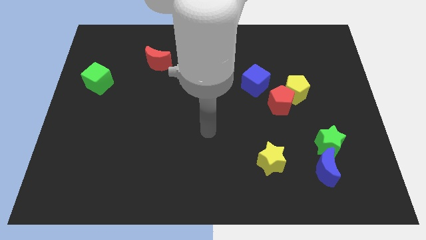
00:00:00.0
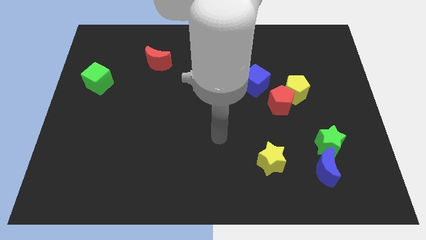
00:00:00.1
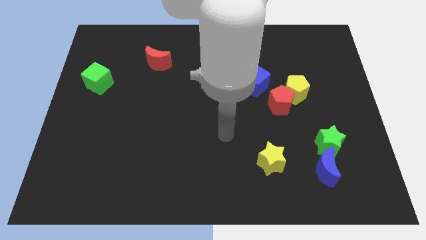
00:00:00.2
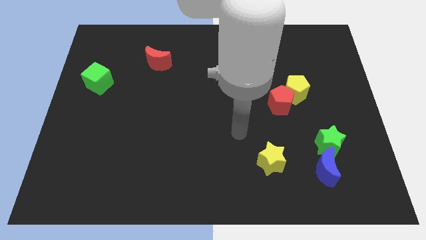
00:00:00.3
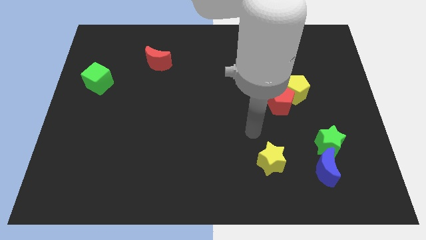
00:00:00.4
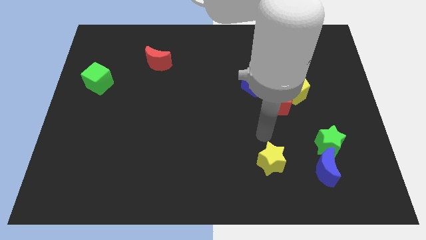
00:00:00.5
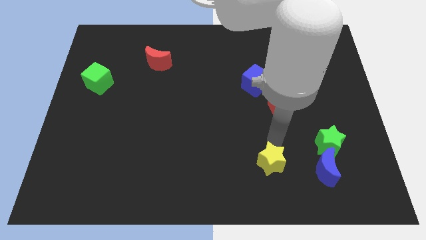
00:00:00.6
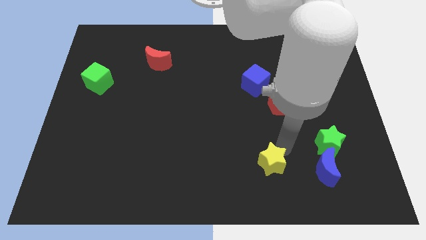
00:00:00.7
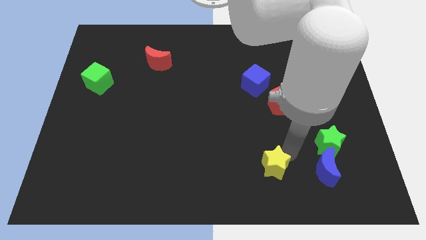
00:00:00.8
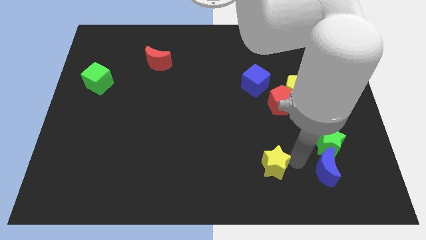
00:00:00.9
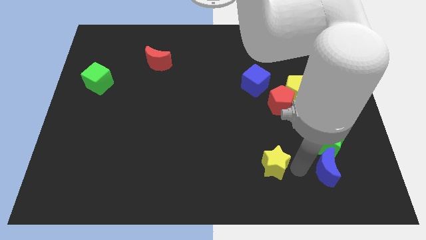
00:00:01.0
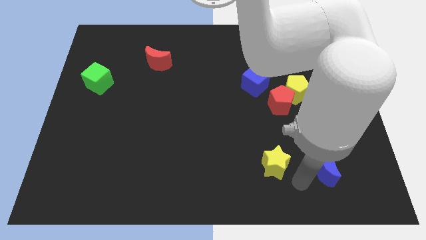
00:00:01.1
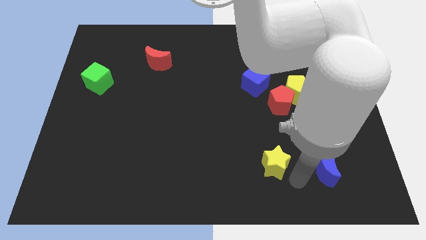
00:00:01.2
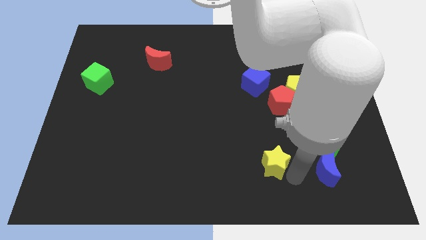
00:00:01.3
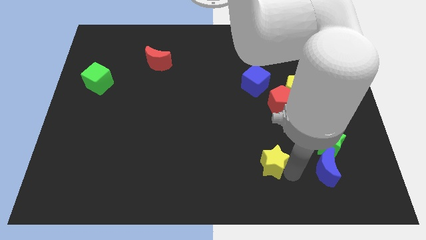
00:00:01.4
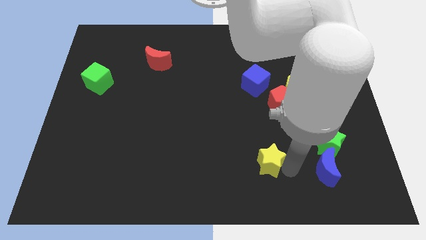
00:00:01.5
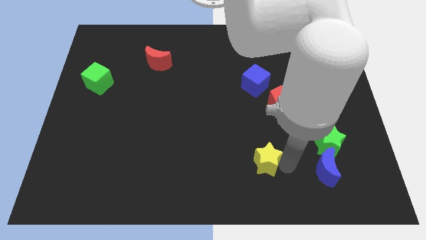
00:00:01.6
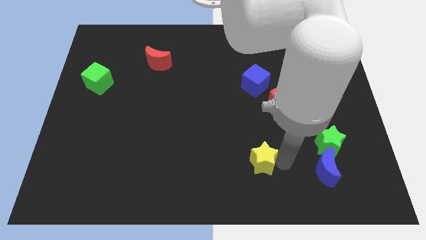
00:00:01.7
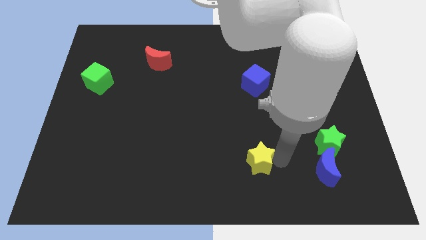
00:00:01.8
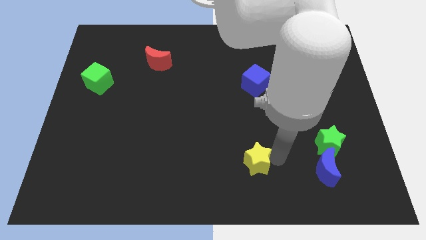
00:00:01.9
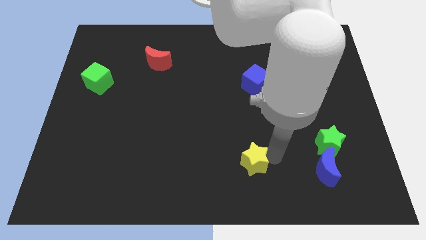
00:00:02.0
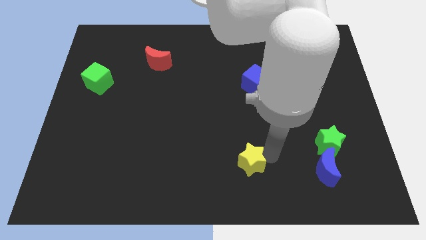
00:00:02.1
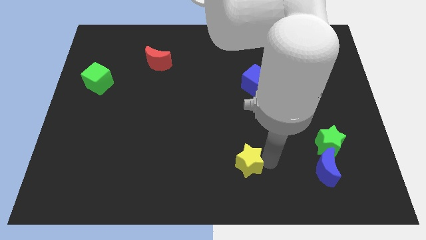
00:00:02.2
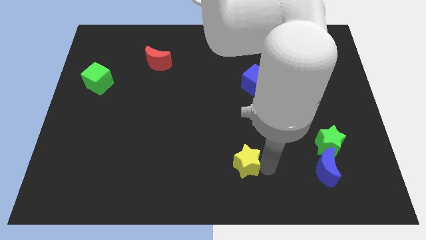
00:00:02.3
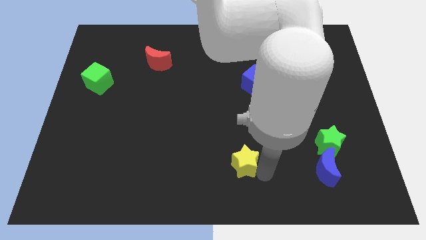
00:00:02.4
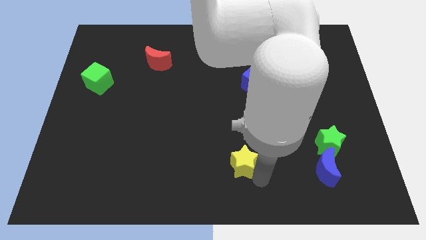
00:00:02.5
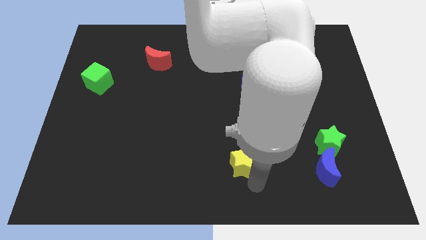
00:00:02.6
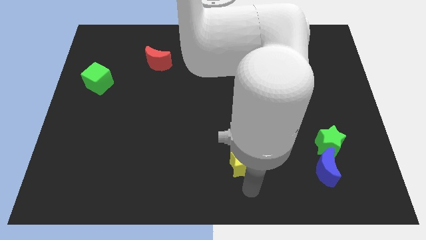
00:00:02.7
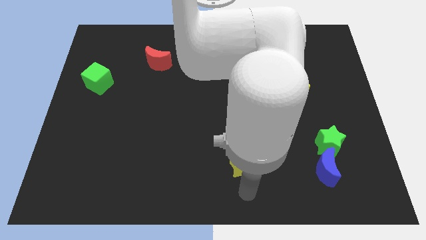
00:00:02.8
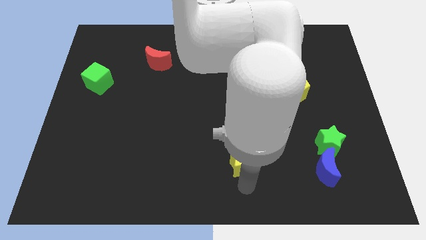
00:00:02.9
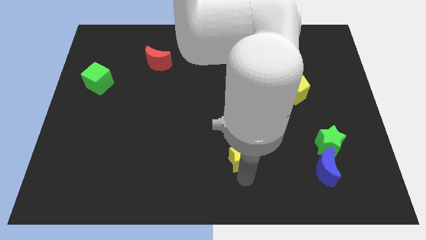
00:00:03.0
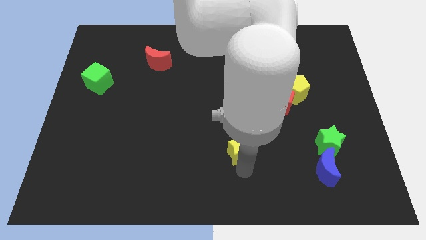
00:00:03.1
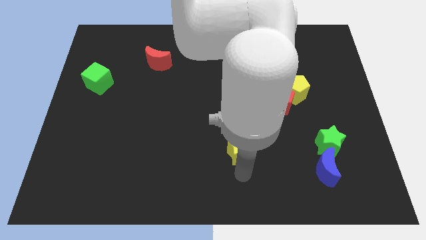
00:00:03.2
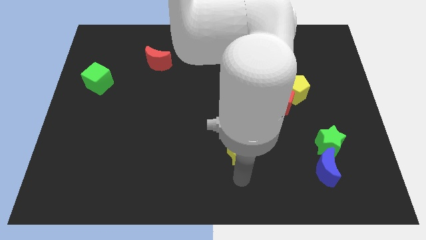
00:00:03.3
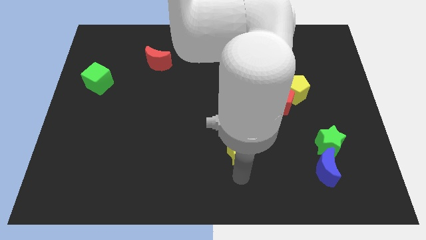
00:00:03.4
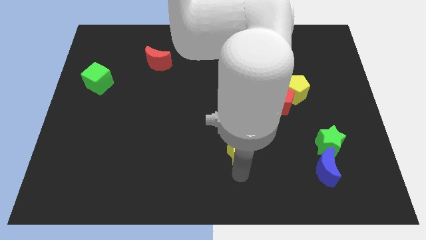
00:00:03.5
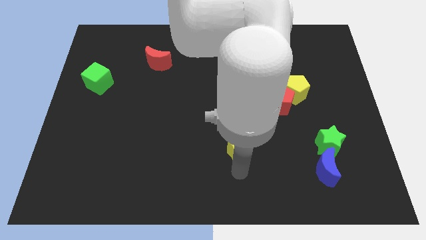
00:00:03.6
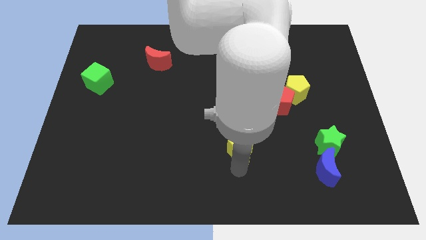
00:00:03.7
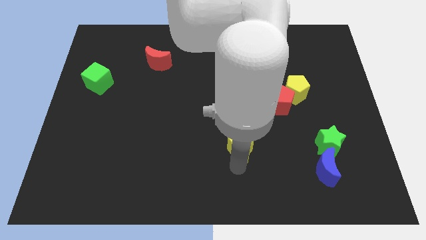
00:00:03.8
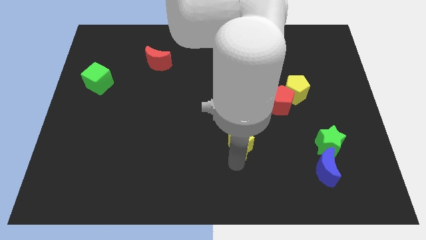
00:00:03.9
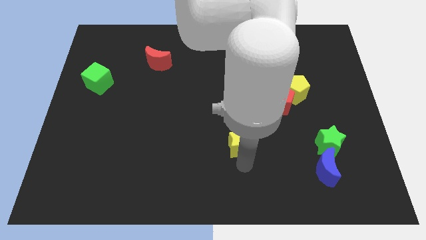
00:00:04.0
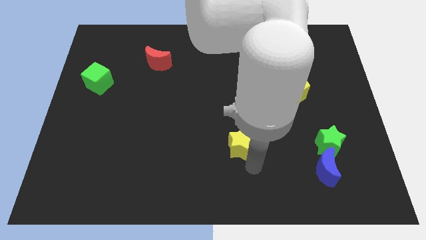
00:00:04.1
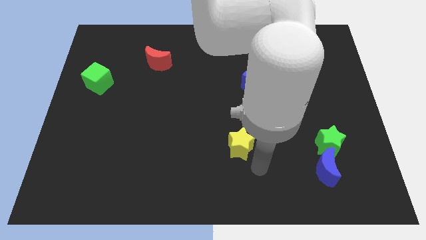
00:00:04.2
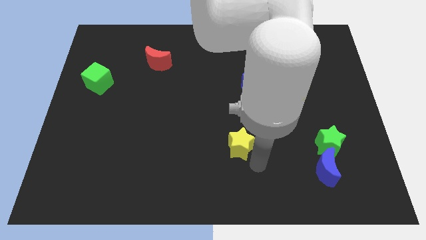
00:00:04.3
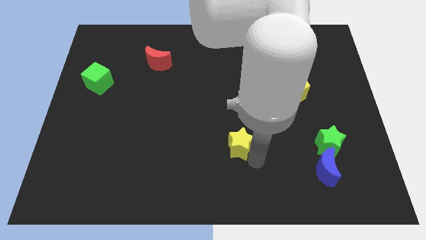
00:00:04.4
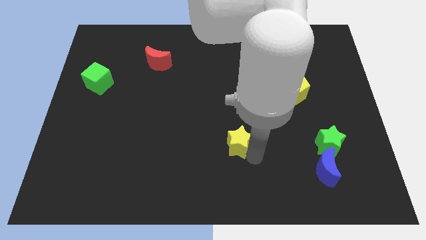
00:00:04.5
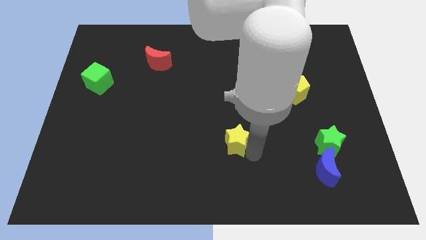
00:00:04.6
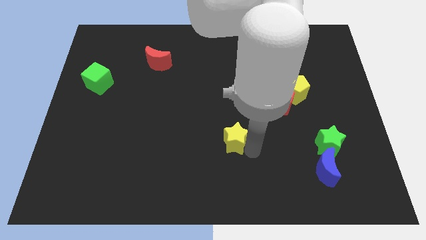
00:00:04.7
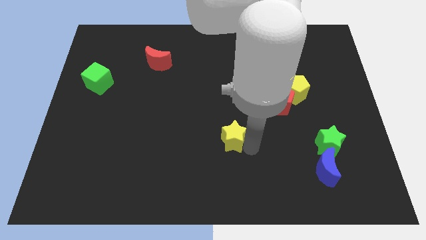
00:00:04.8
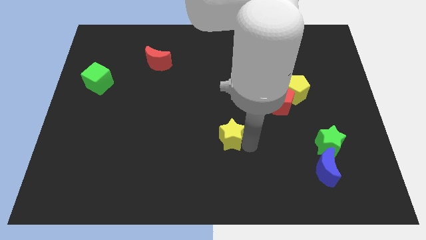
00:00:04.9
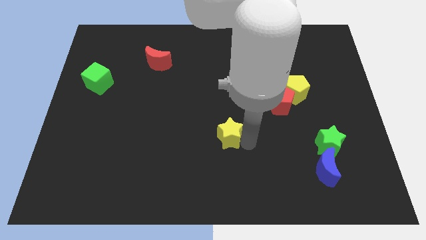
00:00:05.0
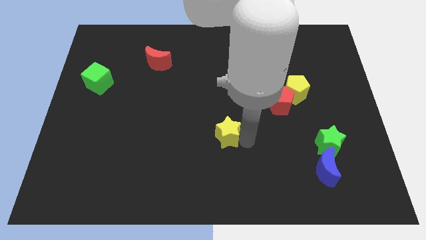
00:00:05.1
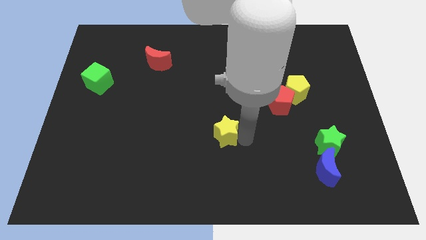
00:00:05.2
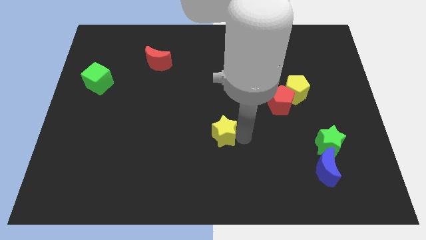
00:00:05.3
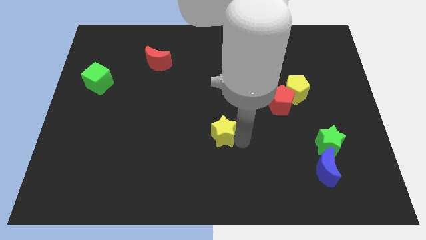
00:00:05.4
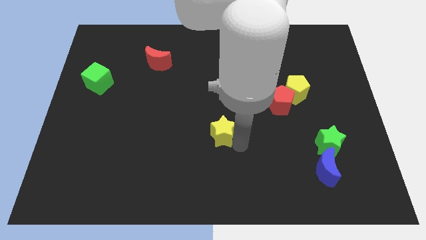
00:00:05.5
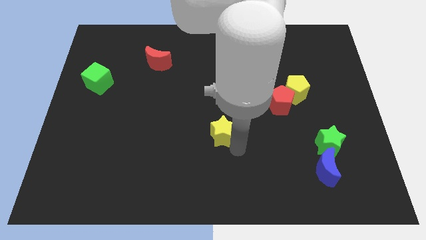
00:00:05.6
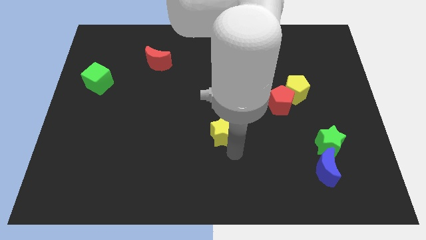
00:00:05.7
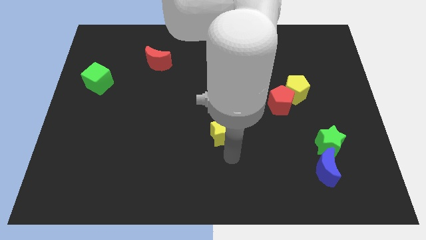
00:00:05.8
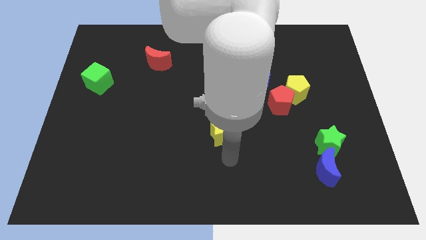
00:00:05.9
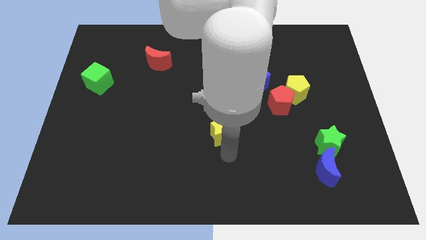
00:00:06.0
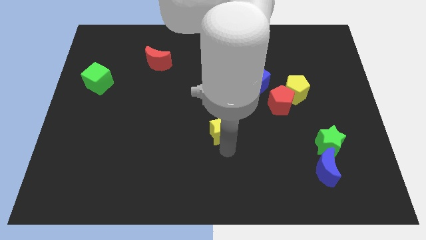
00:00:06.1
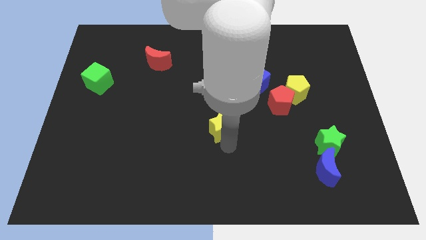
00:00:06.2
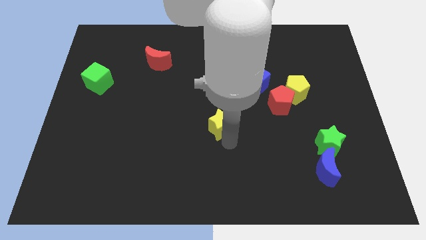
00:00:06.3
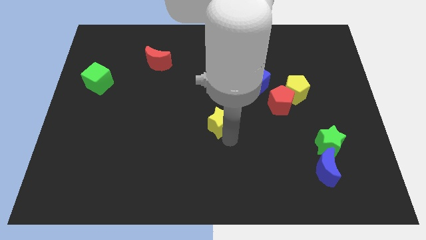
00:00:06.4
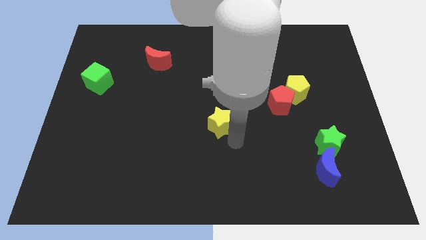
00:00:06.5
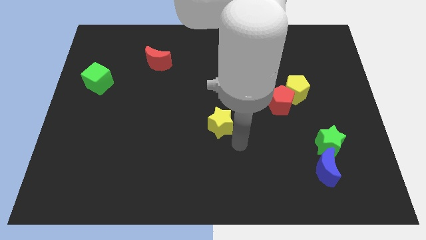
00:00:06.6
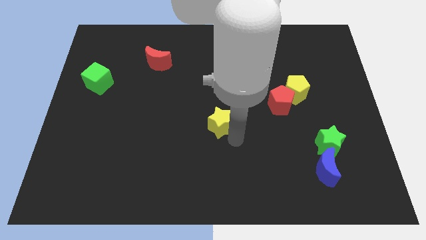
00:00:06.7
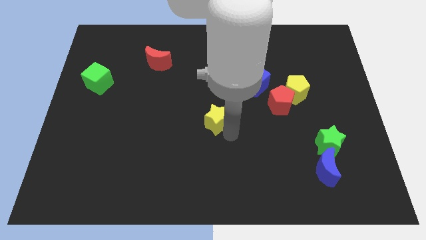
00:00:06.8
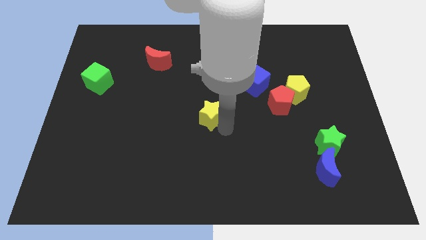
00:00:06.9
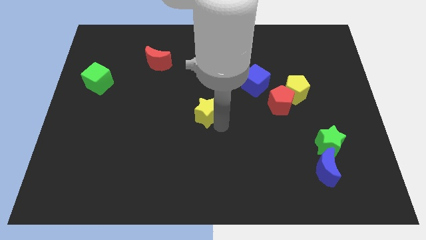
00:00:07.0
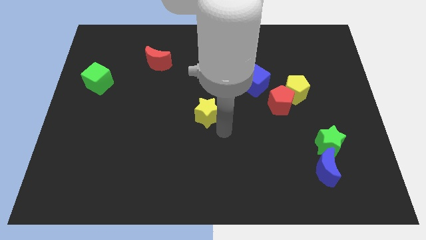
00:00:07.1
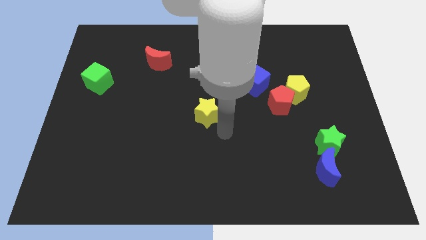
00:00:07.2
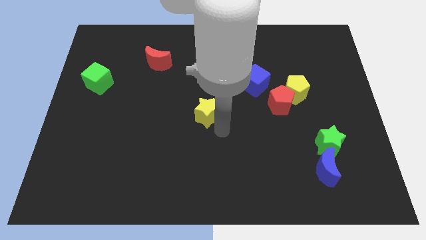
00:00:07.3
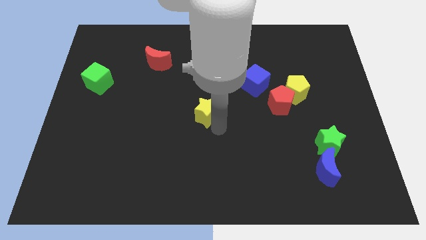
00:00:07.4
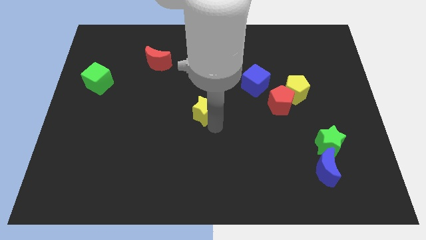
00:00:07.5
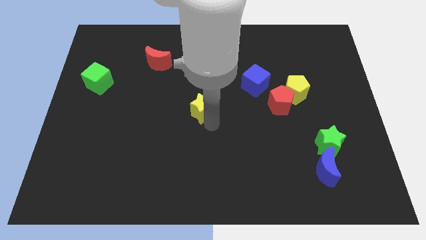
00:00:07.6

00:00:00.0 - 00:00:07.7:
slide the yellow star upwards and to the left diagonally

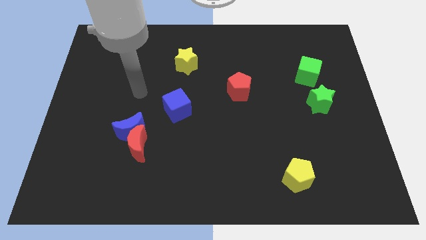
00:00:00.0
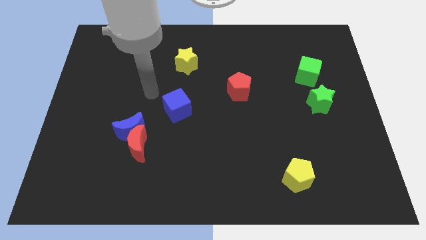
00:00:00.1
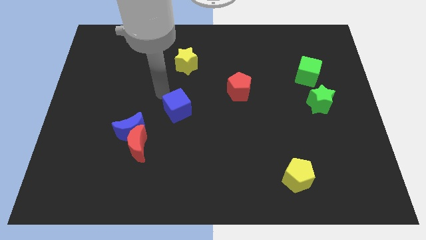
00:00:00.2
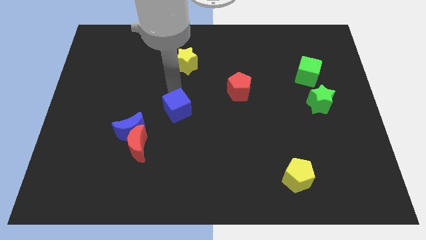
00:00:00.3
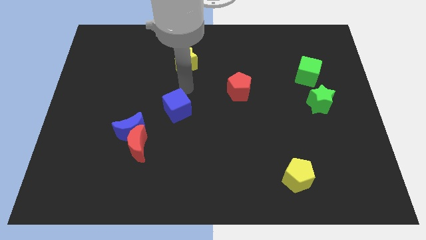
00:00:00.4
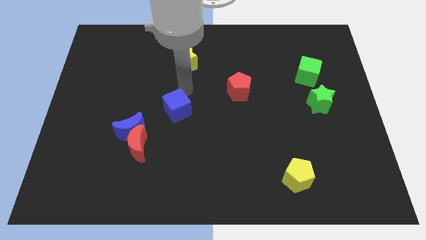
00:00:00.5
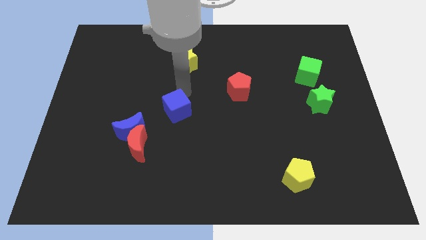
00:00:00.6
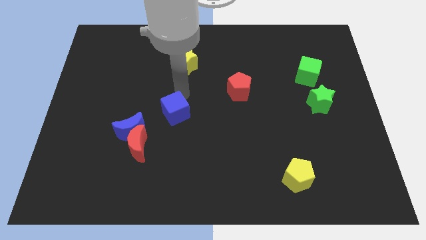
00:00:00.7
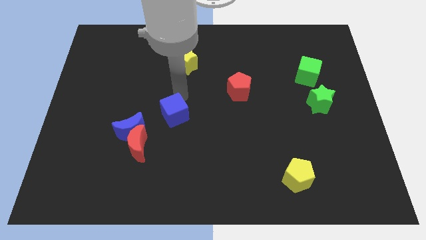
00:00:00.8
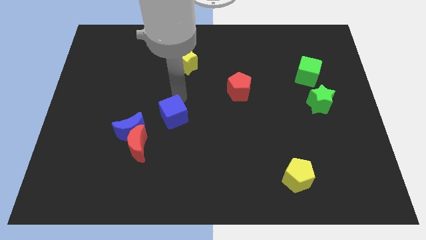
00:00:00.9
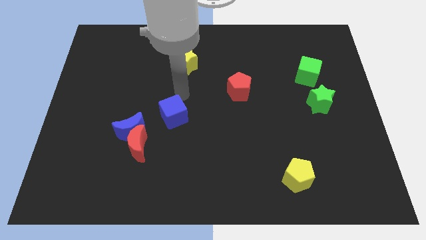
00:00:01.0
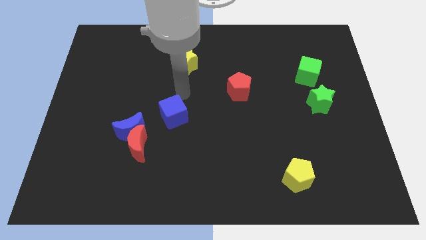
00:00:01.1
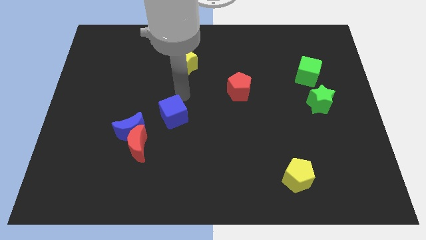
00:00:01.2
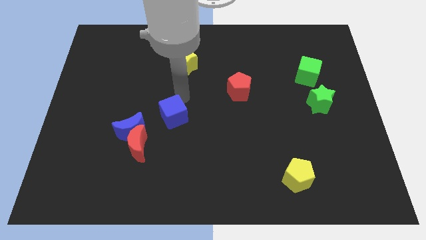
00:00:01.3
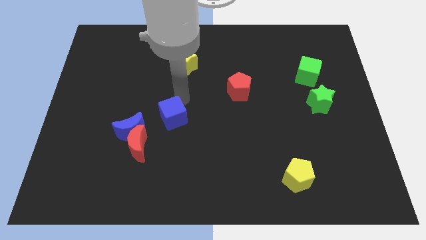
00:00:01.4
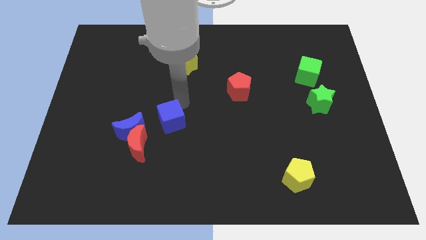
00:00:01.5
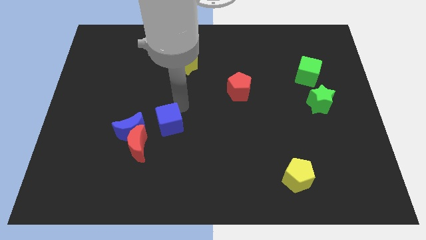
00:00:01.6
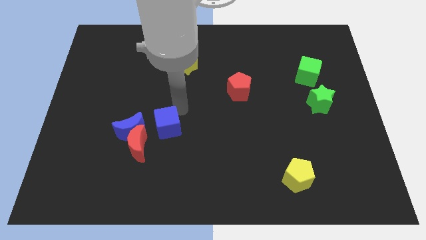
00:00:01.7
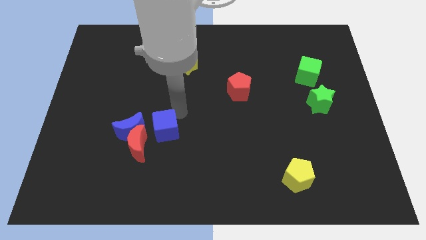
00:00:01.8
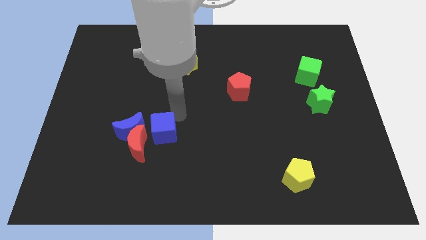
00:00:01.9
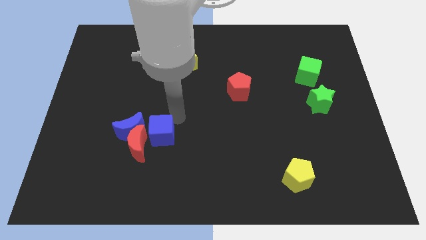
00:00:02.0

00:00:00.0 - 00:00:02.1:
slightly move the blue cube downwards and then left
